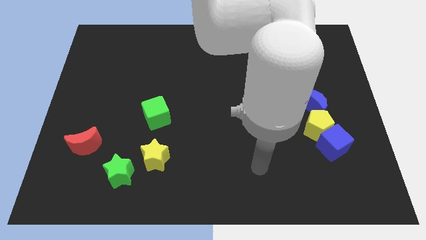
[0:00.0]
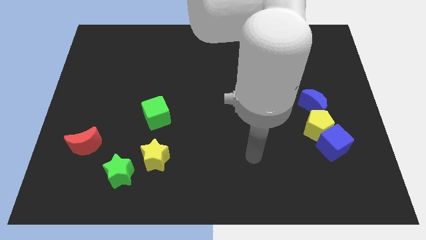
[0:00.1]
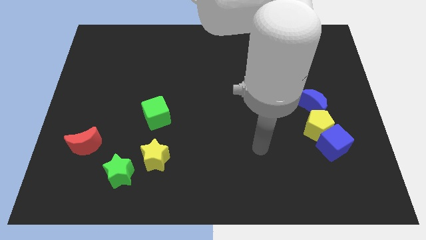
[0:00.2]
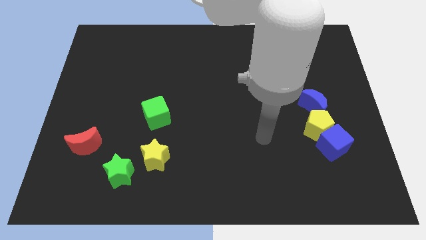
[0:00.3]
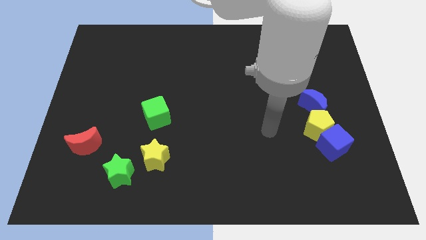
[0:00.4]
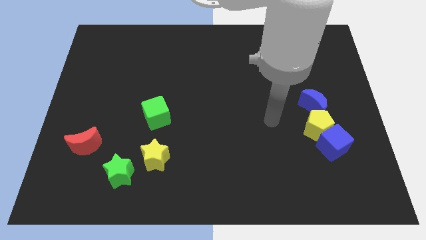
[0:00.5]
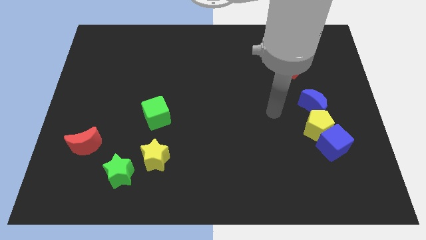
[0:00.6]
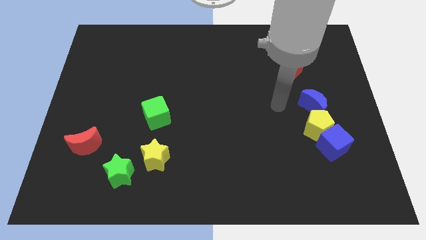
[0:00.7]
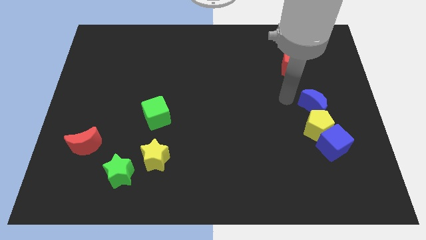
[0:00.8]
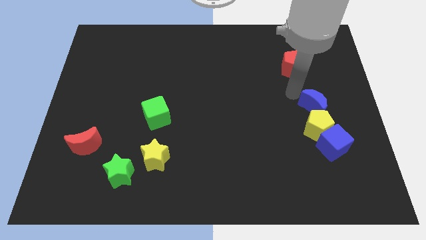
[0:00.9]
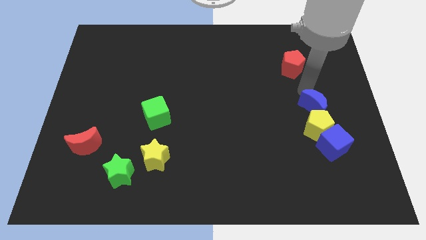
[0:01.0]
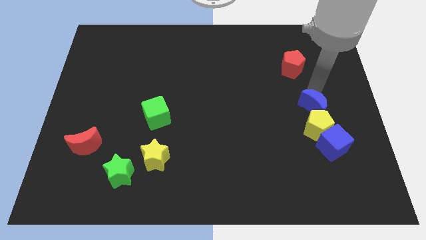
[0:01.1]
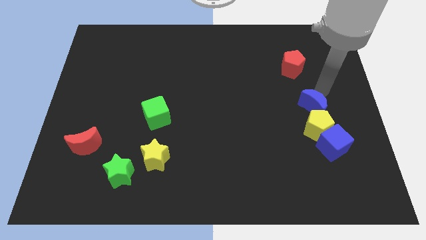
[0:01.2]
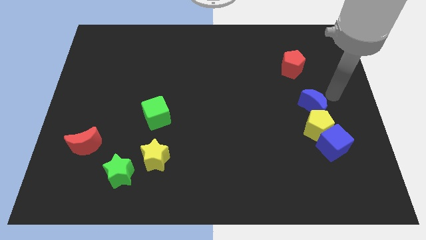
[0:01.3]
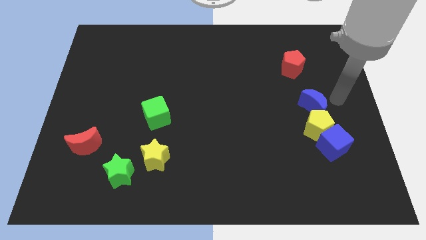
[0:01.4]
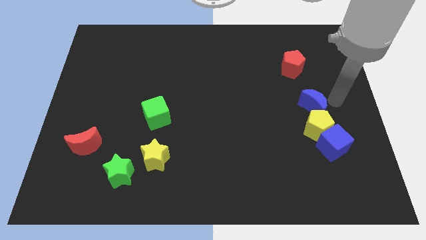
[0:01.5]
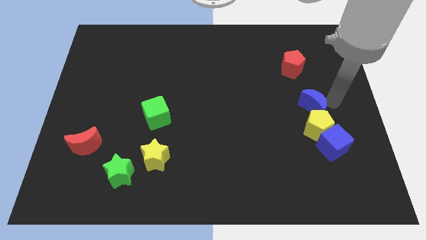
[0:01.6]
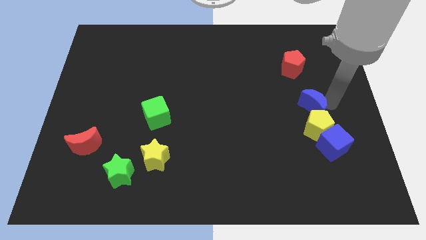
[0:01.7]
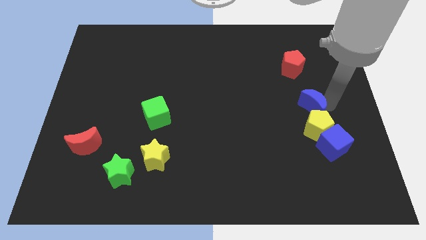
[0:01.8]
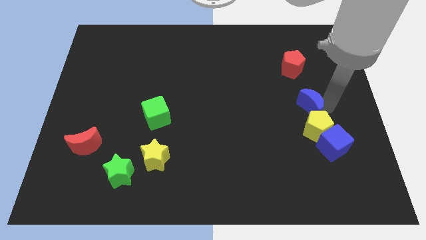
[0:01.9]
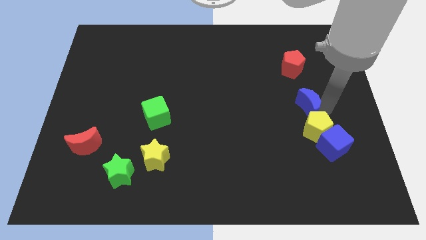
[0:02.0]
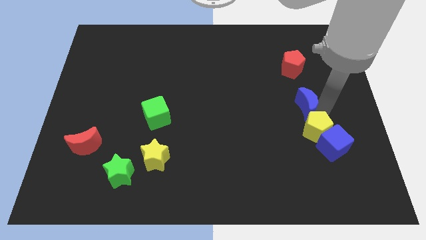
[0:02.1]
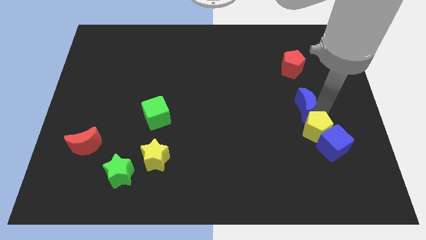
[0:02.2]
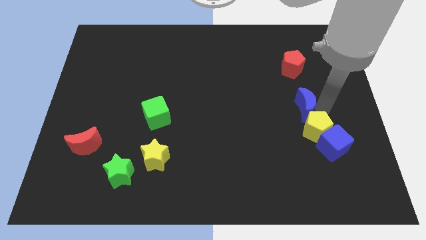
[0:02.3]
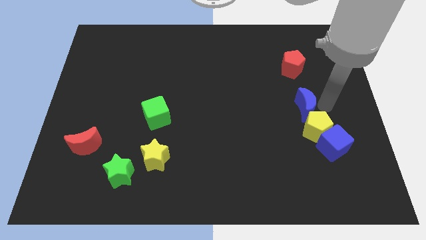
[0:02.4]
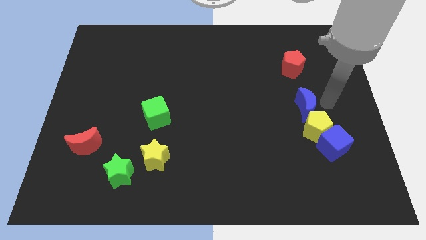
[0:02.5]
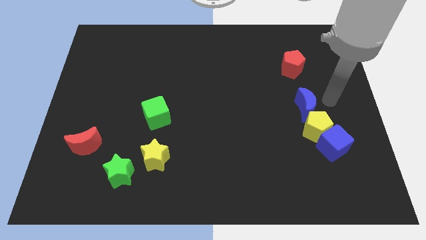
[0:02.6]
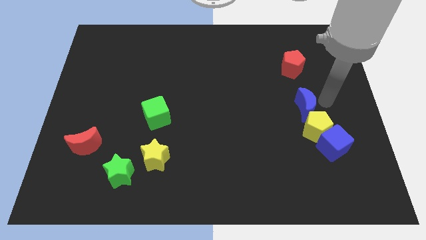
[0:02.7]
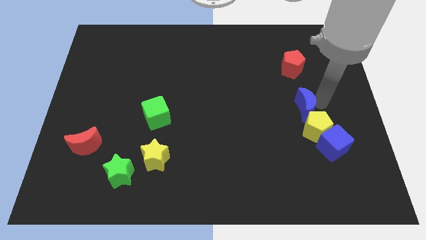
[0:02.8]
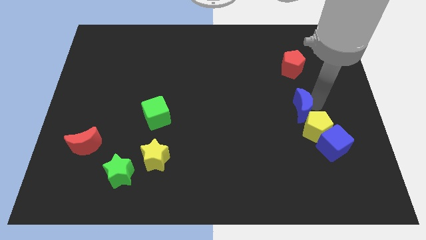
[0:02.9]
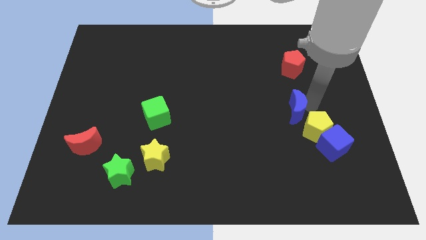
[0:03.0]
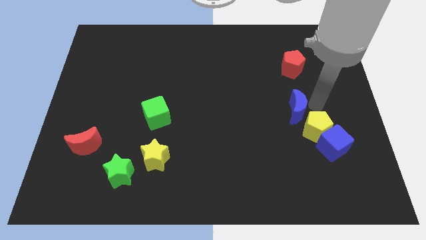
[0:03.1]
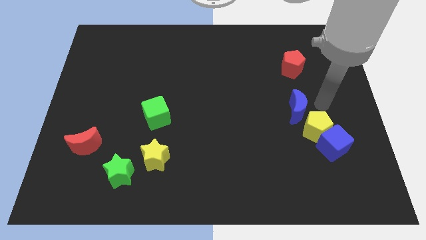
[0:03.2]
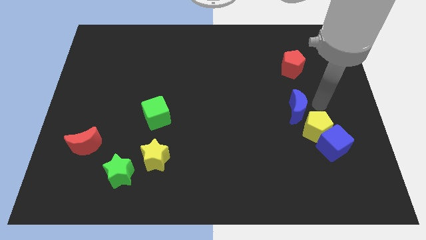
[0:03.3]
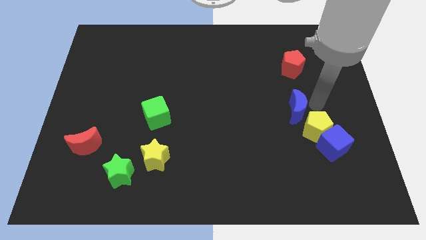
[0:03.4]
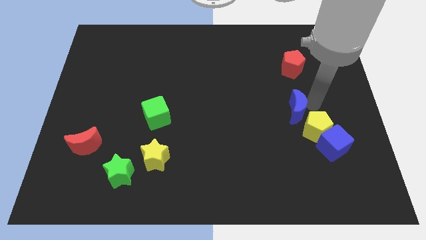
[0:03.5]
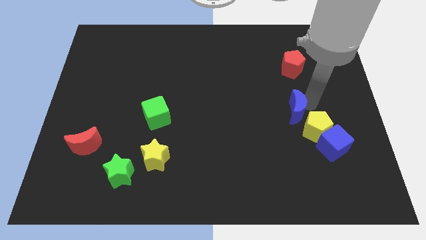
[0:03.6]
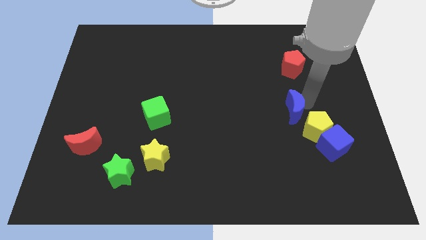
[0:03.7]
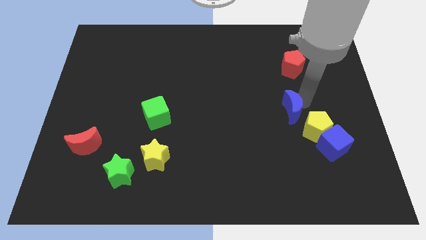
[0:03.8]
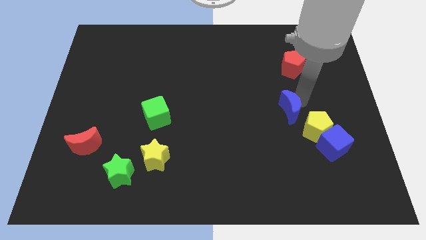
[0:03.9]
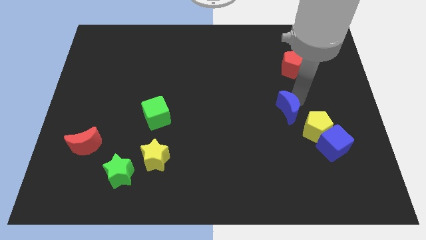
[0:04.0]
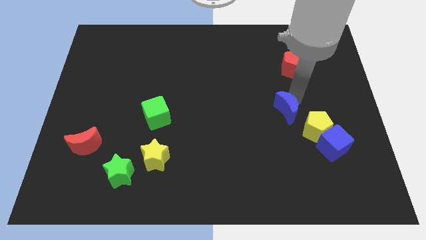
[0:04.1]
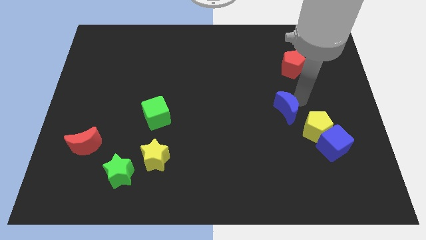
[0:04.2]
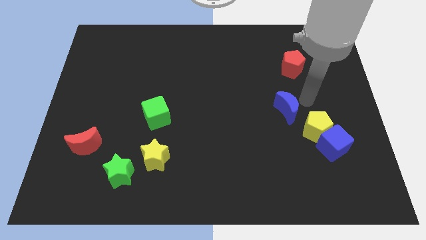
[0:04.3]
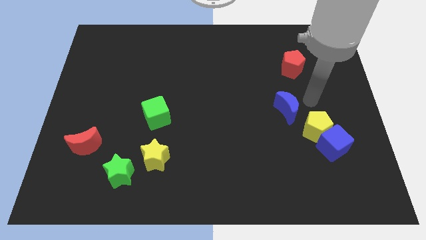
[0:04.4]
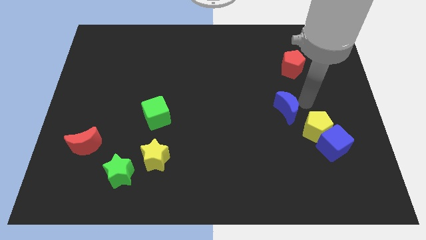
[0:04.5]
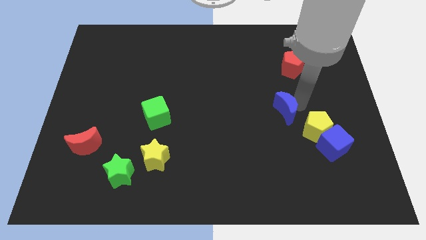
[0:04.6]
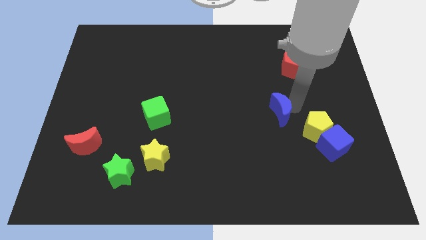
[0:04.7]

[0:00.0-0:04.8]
slightly push the blue moon left

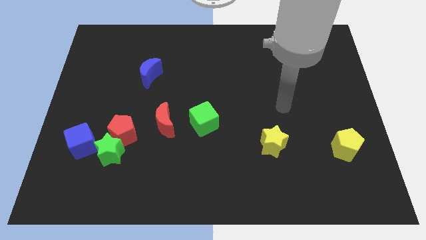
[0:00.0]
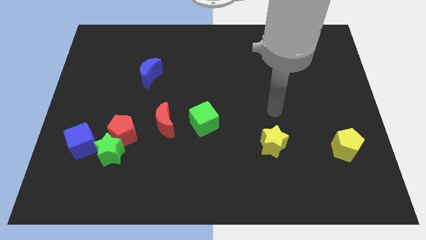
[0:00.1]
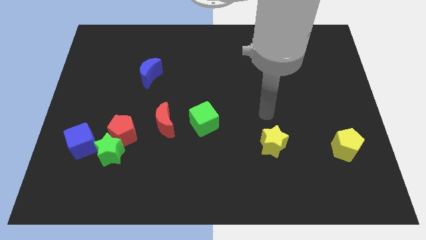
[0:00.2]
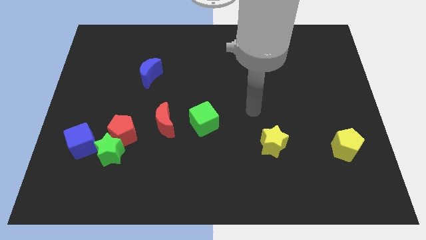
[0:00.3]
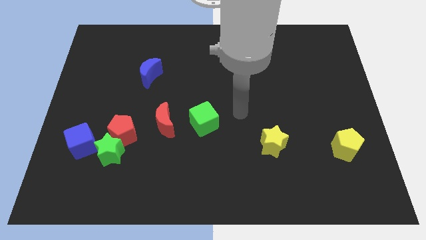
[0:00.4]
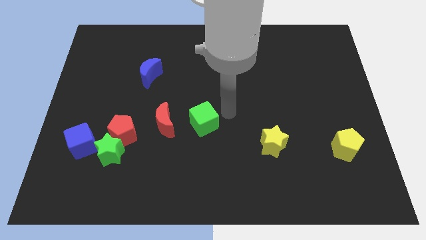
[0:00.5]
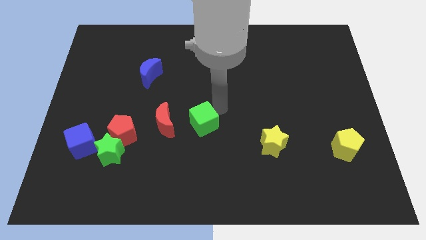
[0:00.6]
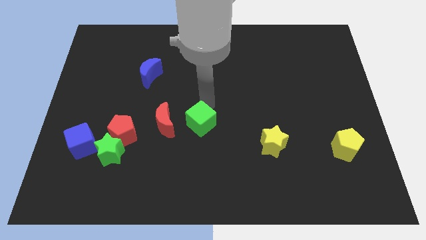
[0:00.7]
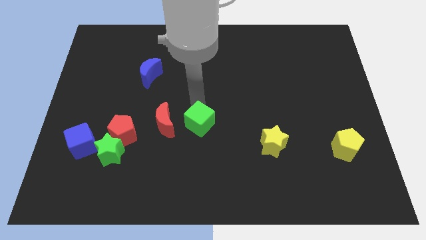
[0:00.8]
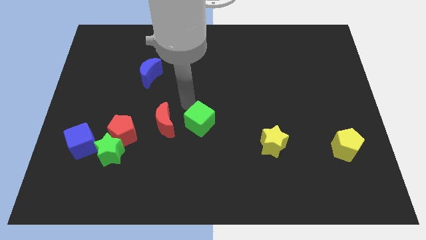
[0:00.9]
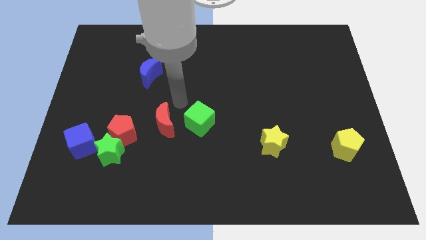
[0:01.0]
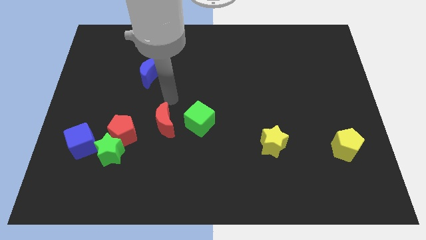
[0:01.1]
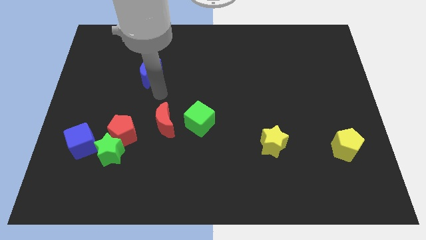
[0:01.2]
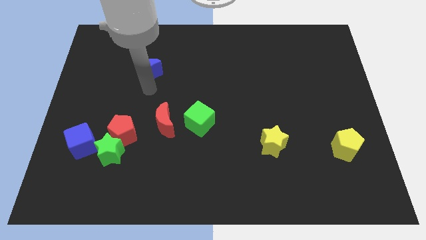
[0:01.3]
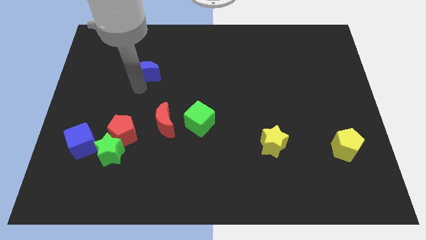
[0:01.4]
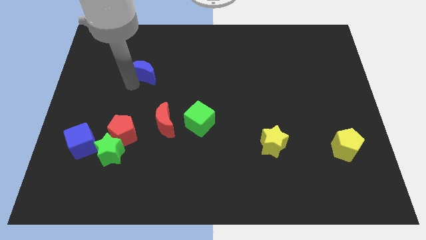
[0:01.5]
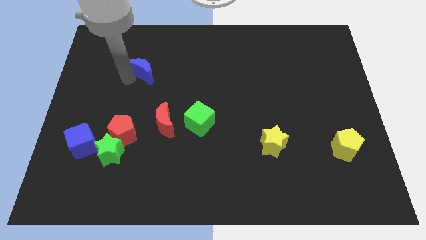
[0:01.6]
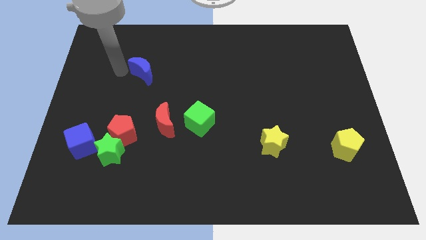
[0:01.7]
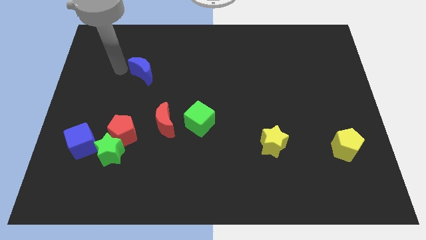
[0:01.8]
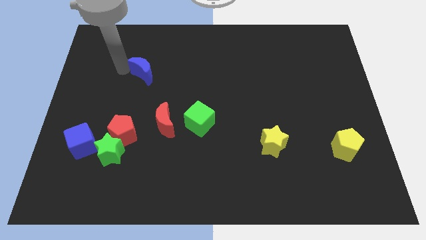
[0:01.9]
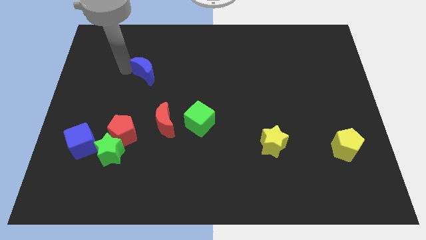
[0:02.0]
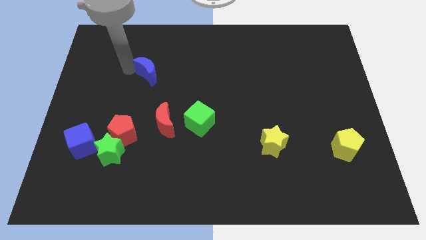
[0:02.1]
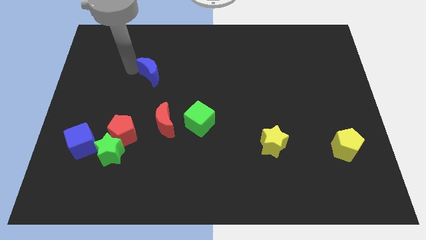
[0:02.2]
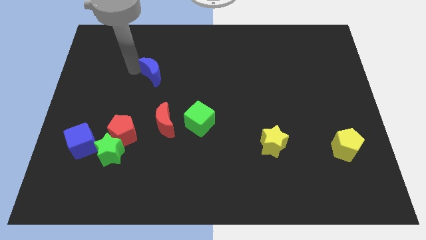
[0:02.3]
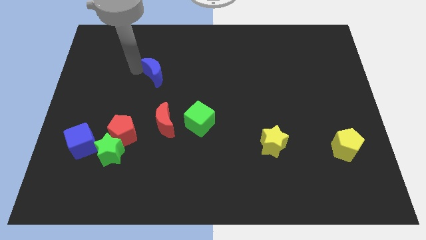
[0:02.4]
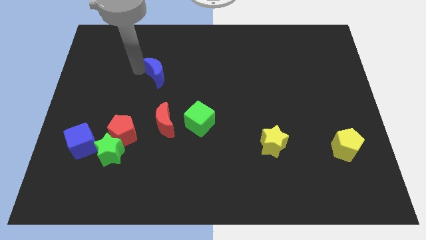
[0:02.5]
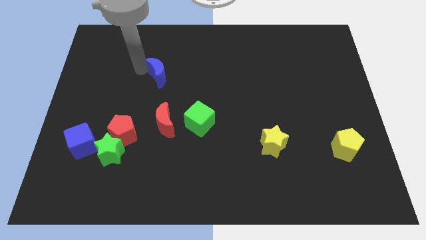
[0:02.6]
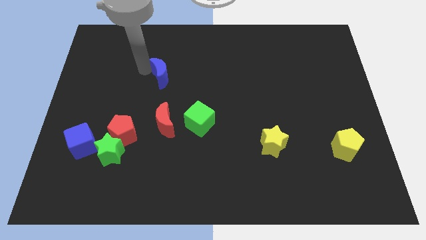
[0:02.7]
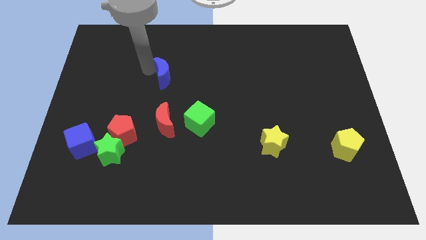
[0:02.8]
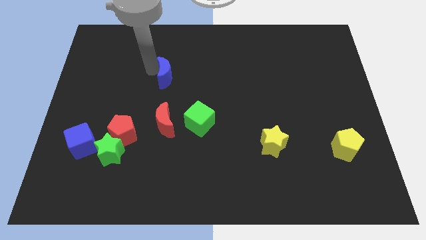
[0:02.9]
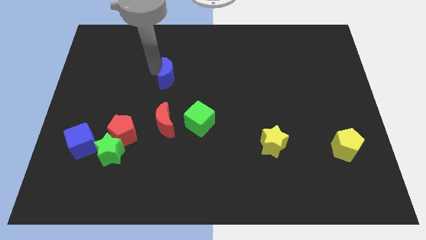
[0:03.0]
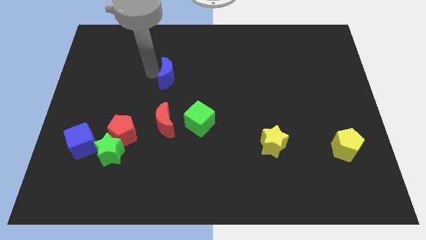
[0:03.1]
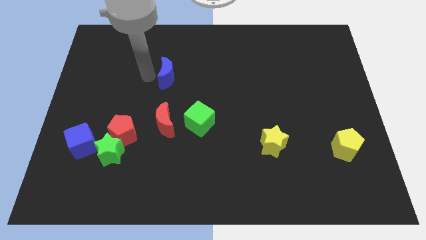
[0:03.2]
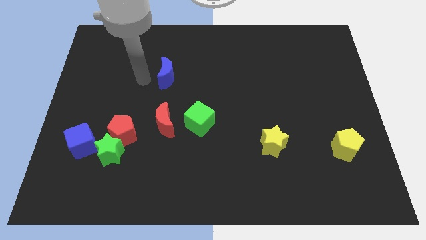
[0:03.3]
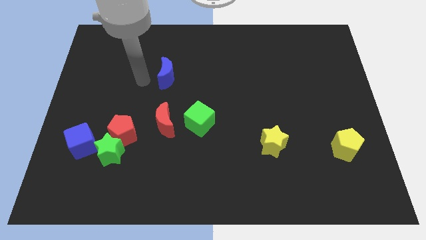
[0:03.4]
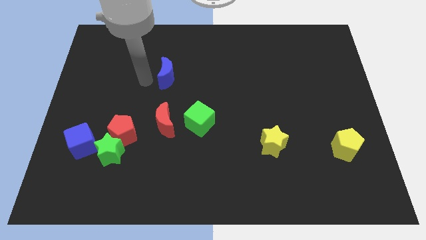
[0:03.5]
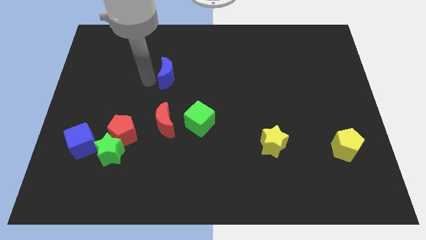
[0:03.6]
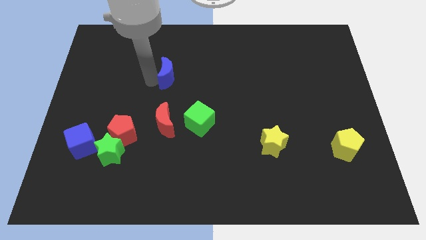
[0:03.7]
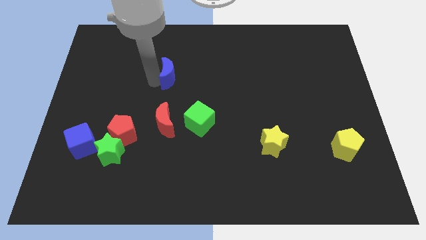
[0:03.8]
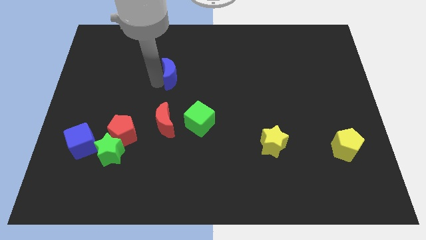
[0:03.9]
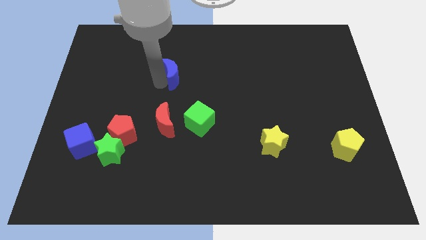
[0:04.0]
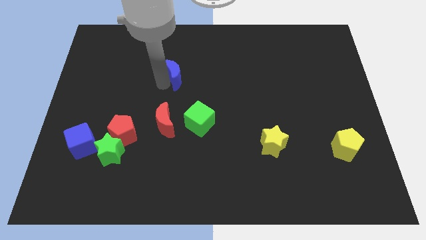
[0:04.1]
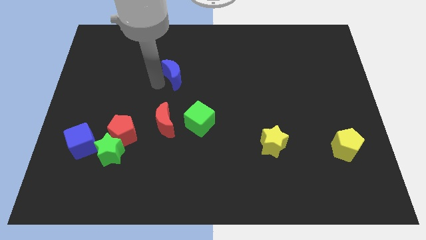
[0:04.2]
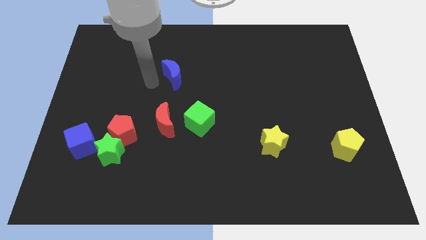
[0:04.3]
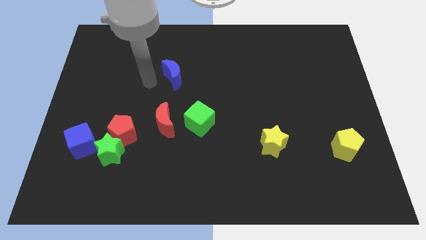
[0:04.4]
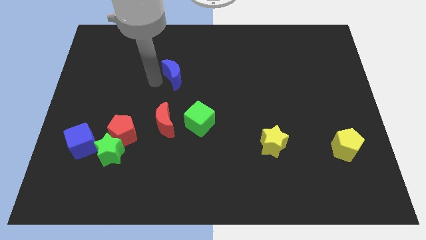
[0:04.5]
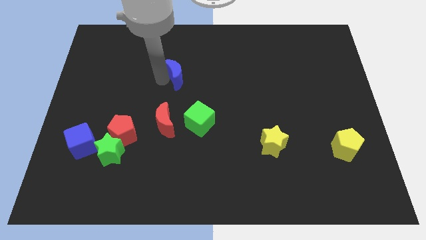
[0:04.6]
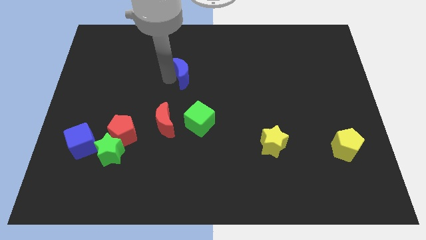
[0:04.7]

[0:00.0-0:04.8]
push the blue moon somewhat right
